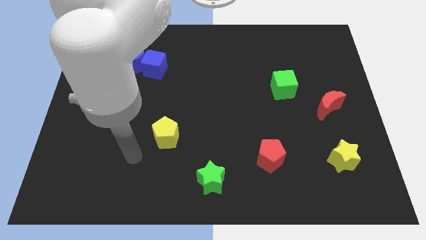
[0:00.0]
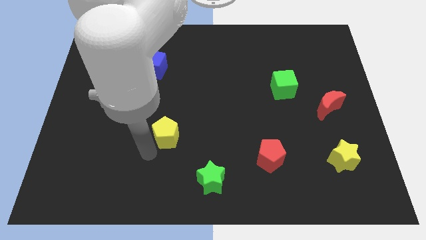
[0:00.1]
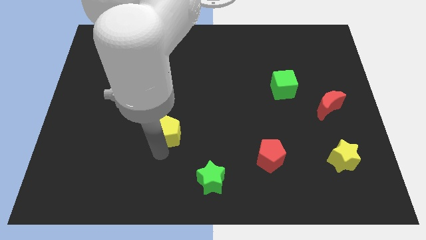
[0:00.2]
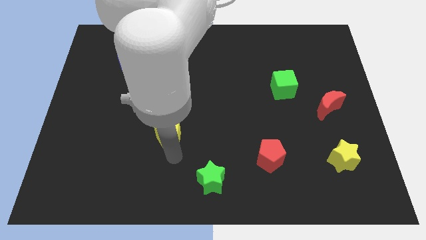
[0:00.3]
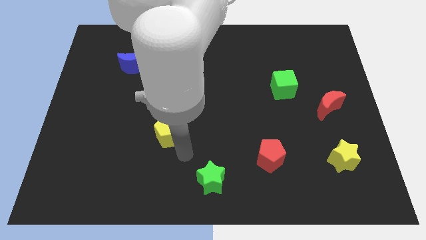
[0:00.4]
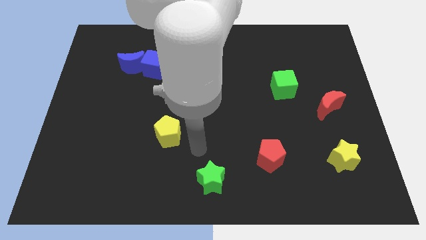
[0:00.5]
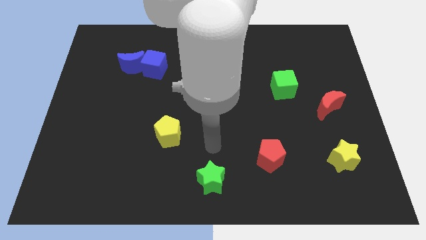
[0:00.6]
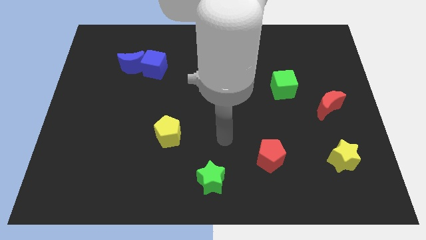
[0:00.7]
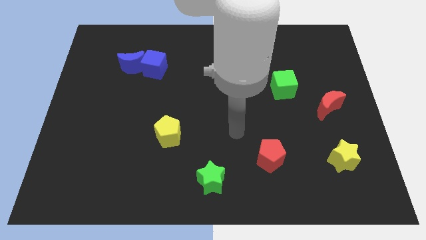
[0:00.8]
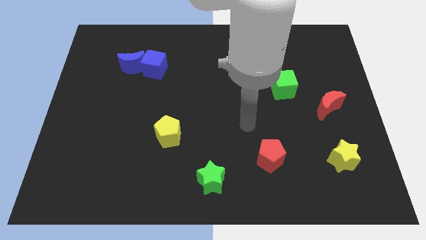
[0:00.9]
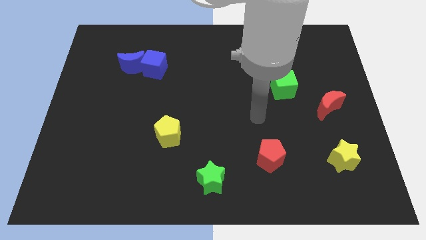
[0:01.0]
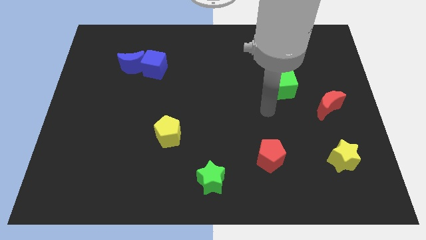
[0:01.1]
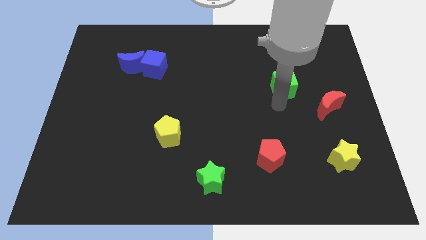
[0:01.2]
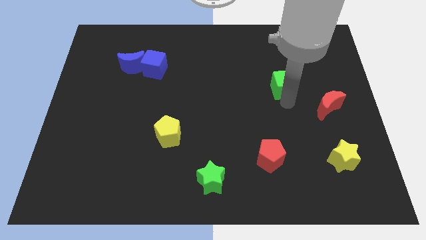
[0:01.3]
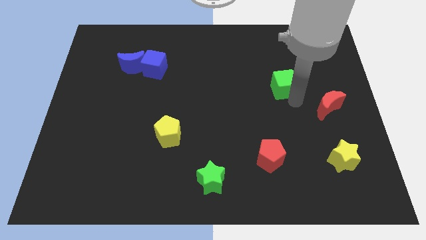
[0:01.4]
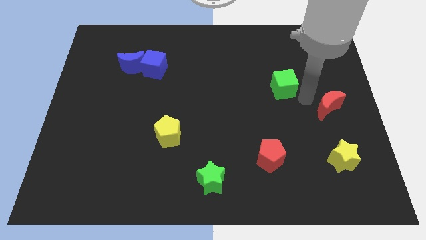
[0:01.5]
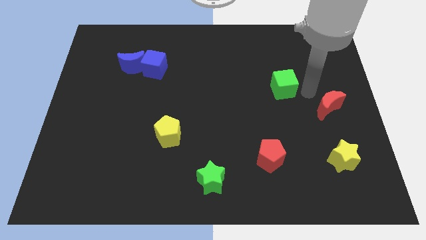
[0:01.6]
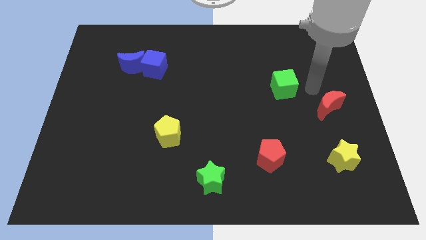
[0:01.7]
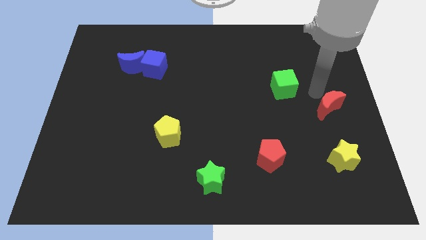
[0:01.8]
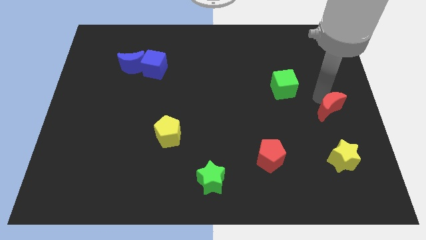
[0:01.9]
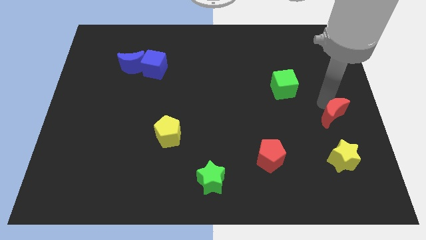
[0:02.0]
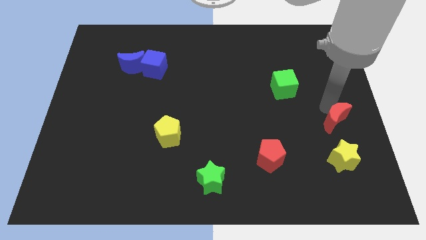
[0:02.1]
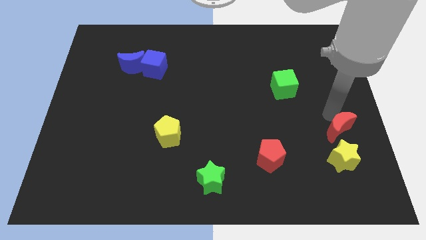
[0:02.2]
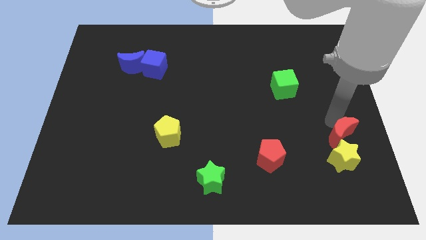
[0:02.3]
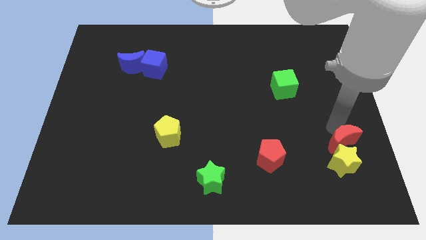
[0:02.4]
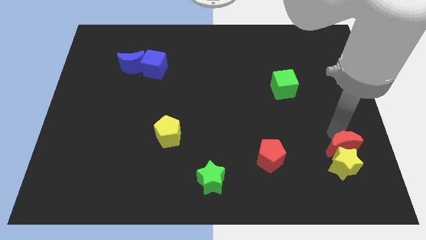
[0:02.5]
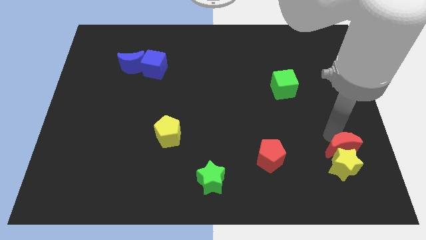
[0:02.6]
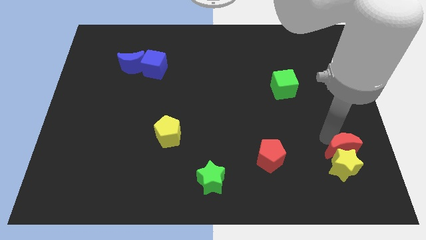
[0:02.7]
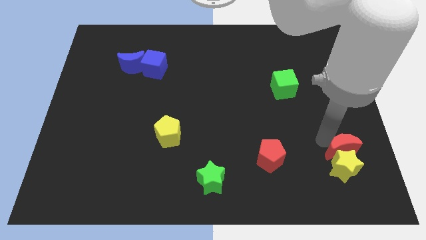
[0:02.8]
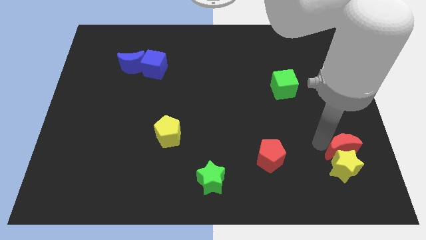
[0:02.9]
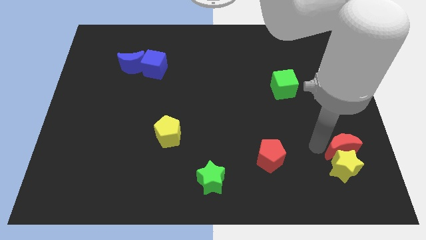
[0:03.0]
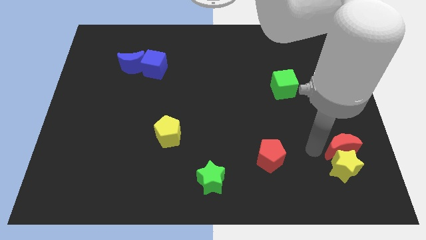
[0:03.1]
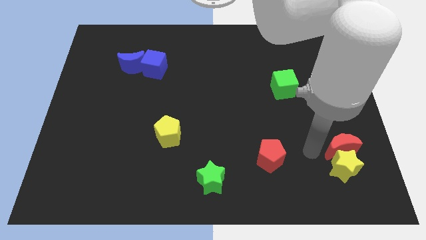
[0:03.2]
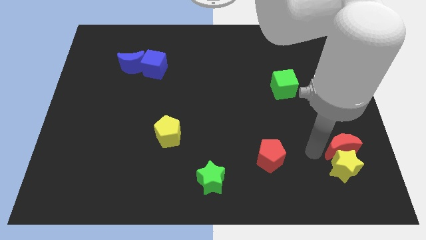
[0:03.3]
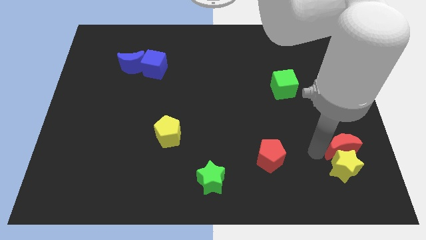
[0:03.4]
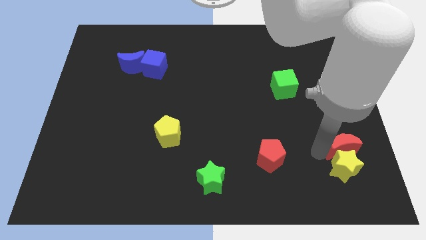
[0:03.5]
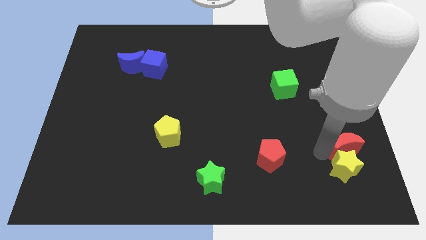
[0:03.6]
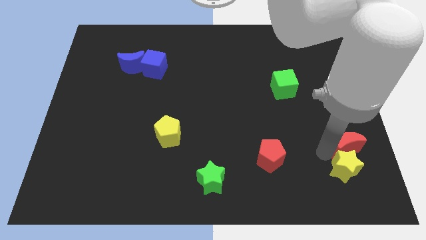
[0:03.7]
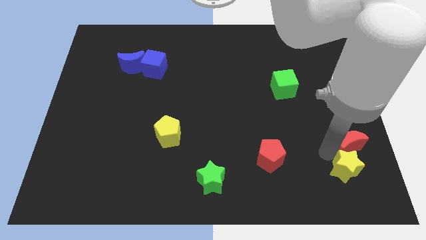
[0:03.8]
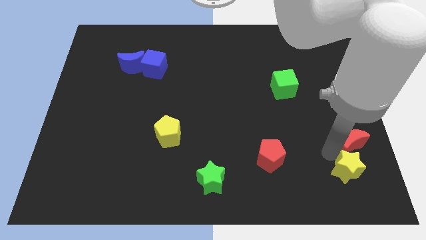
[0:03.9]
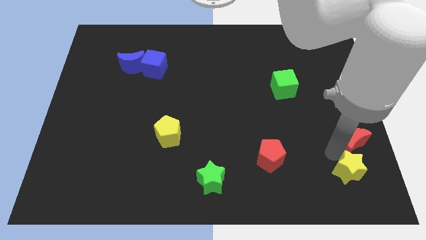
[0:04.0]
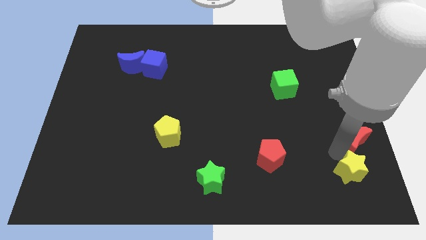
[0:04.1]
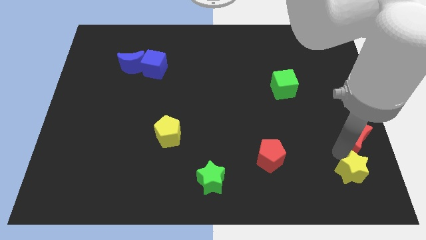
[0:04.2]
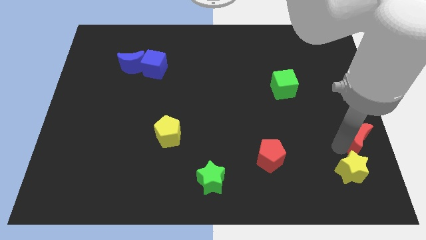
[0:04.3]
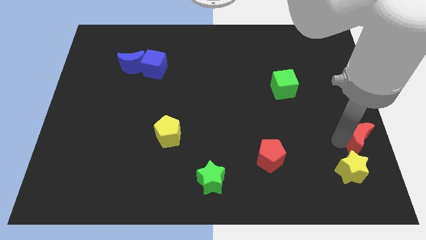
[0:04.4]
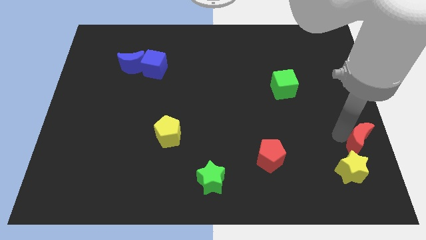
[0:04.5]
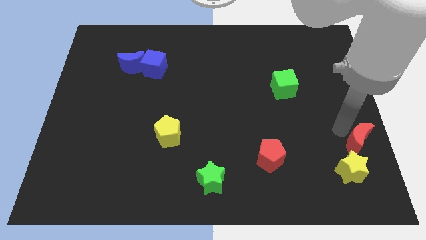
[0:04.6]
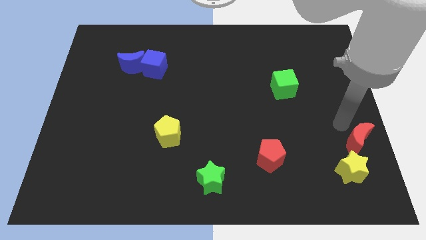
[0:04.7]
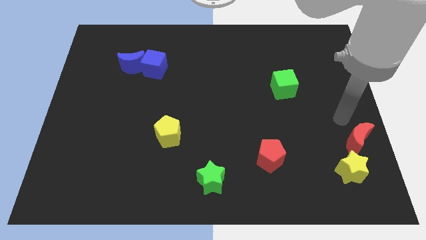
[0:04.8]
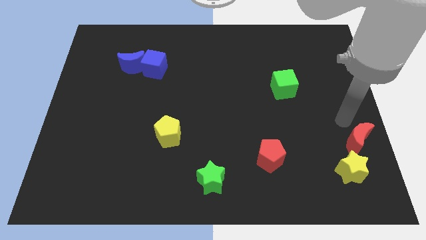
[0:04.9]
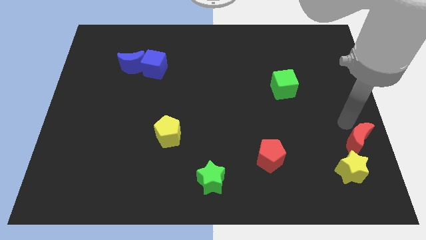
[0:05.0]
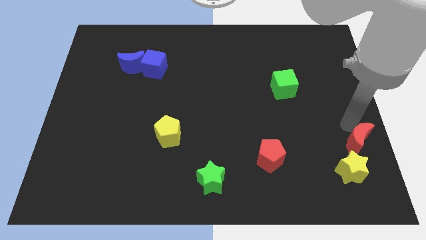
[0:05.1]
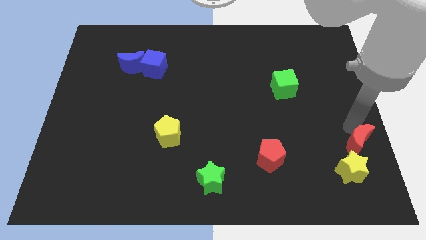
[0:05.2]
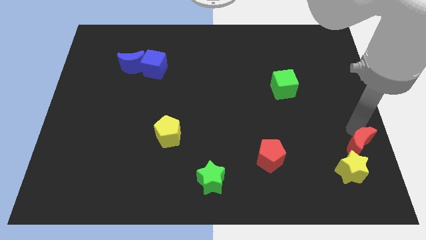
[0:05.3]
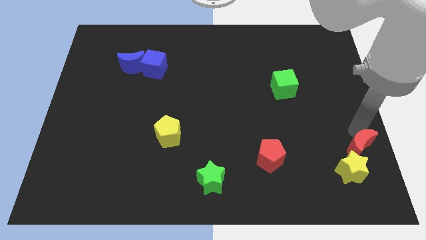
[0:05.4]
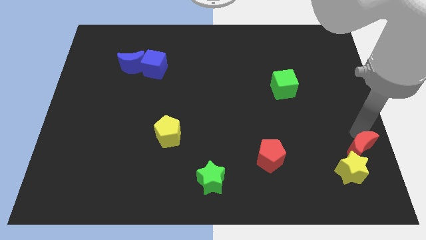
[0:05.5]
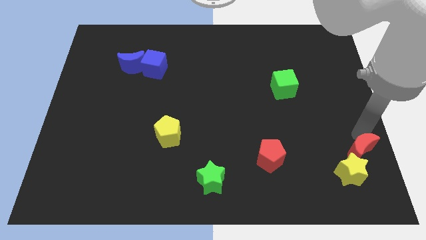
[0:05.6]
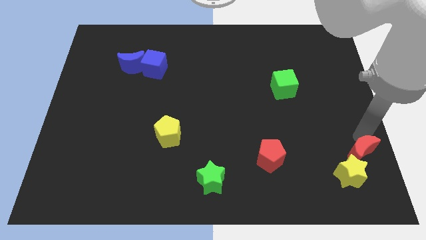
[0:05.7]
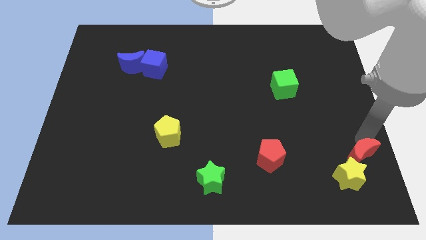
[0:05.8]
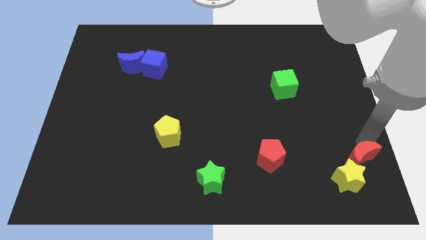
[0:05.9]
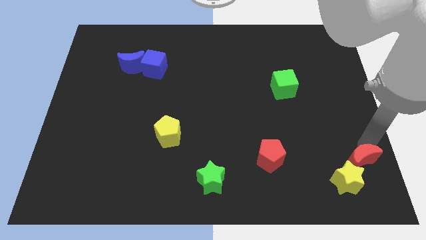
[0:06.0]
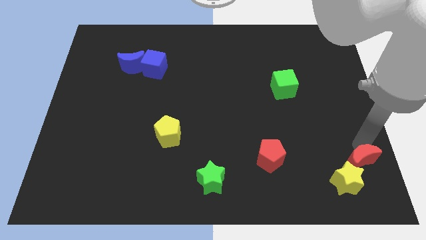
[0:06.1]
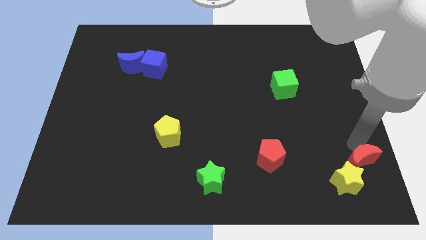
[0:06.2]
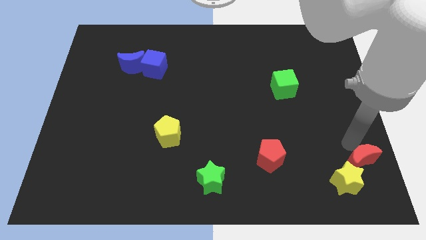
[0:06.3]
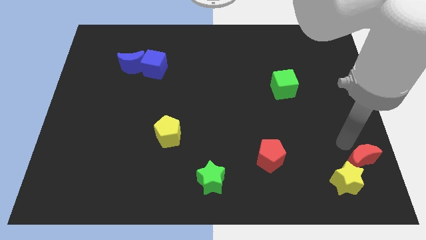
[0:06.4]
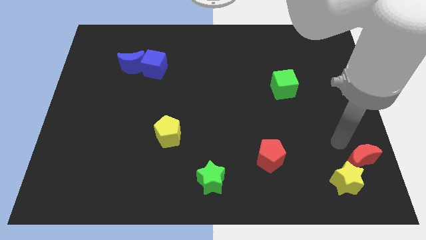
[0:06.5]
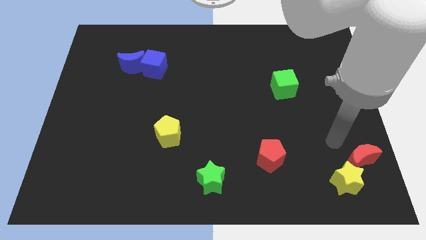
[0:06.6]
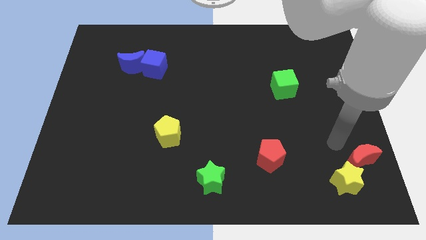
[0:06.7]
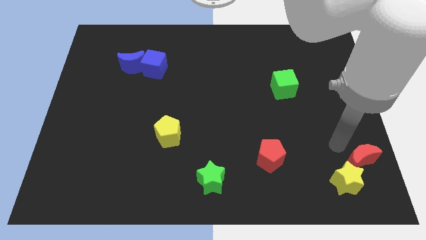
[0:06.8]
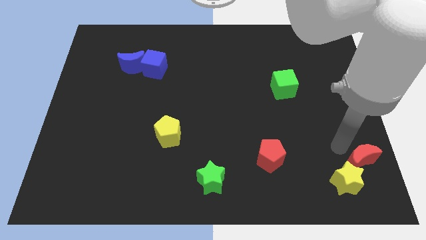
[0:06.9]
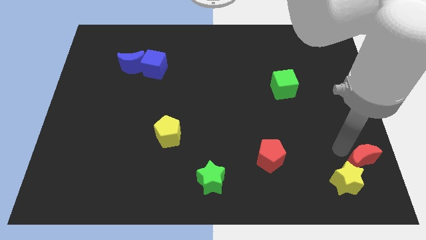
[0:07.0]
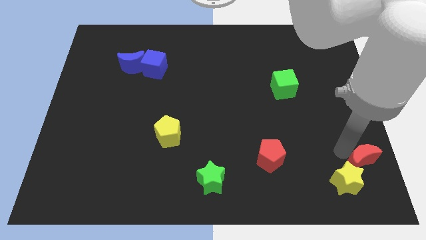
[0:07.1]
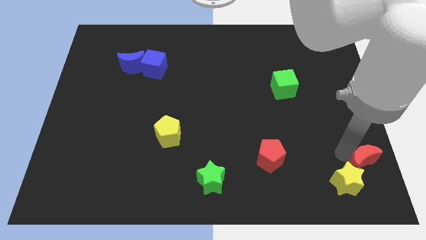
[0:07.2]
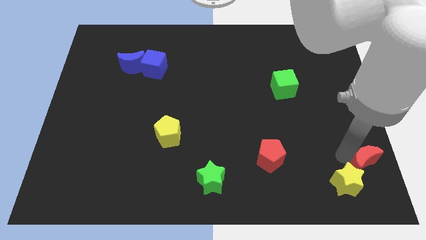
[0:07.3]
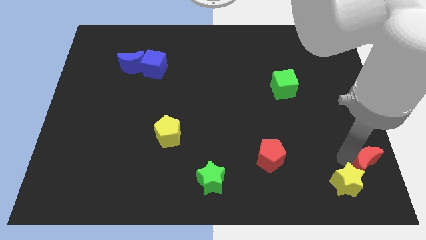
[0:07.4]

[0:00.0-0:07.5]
slide the red moon to the bottom right corner
